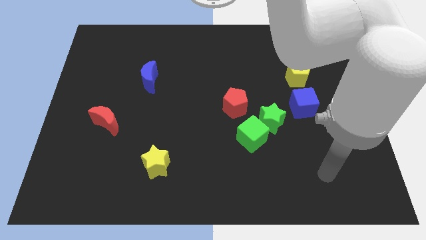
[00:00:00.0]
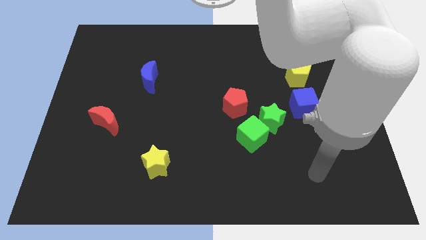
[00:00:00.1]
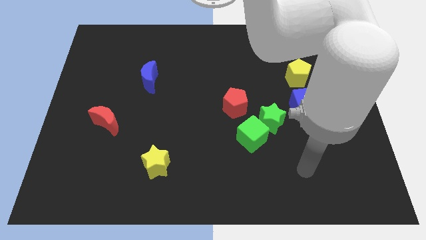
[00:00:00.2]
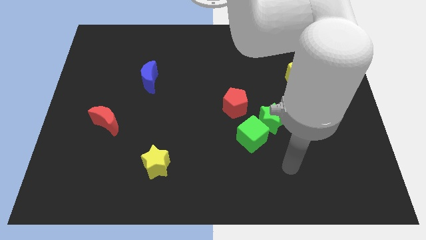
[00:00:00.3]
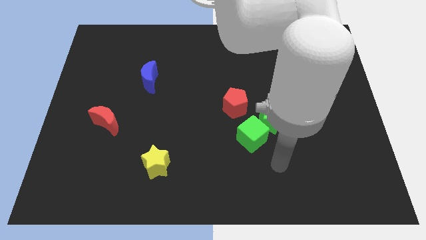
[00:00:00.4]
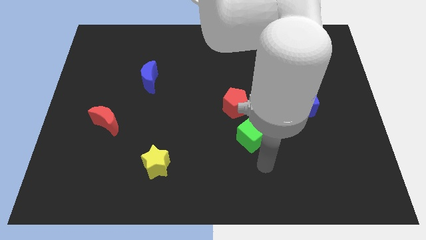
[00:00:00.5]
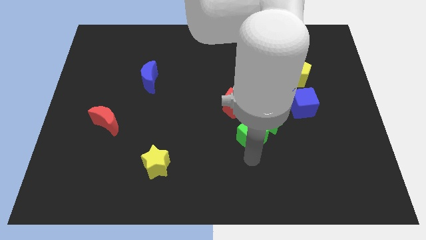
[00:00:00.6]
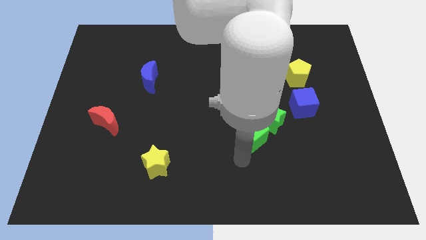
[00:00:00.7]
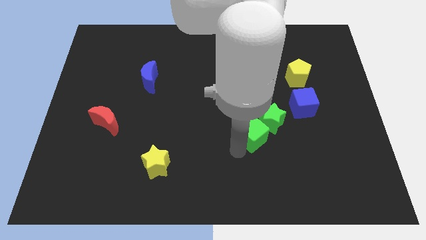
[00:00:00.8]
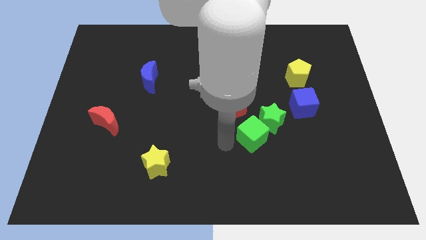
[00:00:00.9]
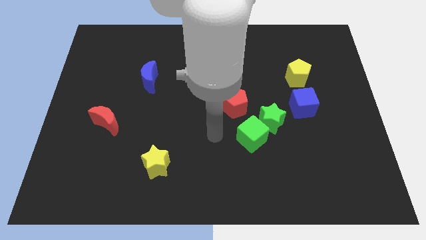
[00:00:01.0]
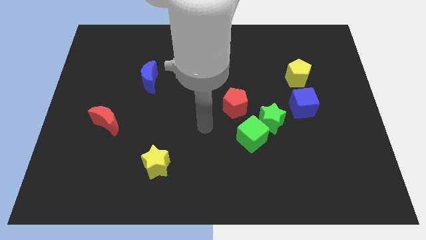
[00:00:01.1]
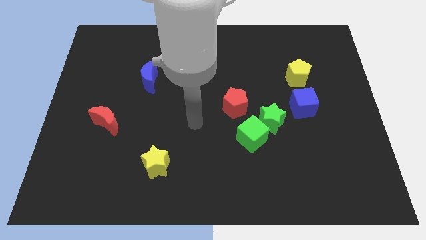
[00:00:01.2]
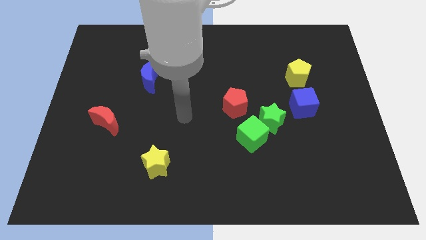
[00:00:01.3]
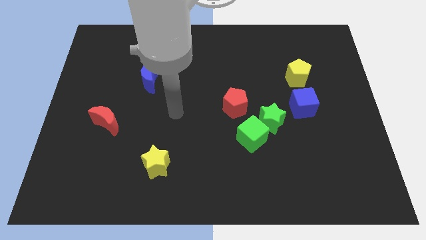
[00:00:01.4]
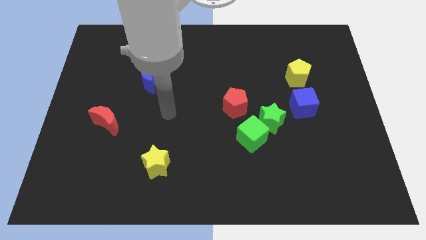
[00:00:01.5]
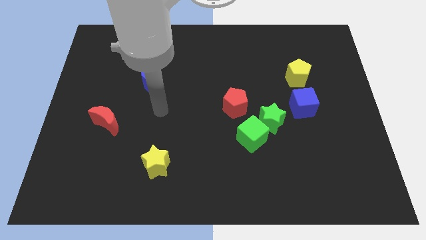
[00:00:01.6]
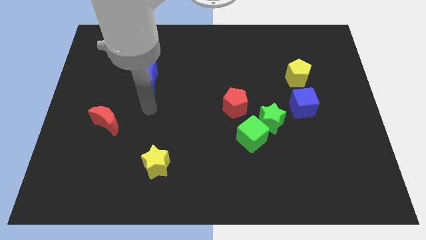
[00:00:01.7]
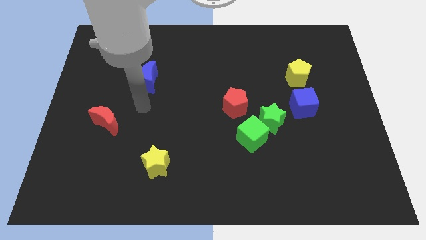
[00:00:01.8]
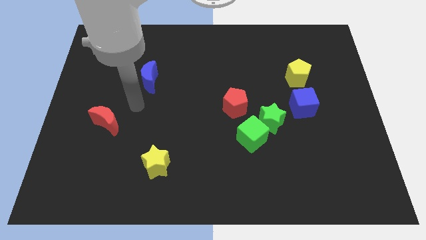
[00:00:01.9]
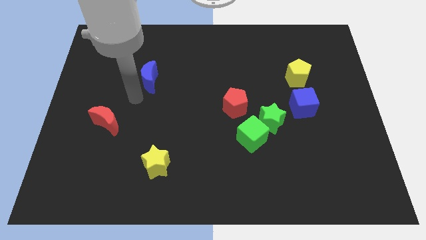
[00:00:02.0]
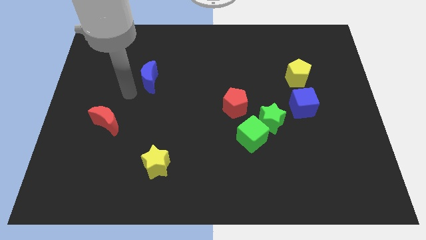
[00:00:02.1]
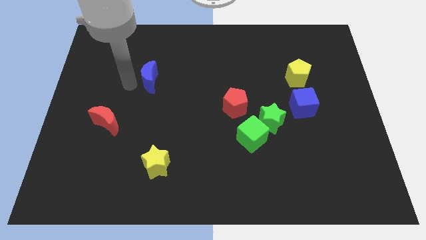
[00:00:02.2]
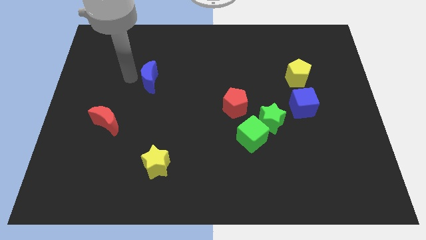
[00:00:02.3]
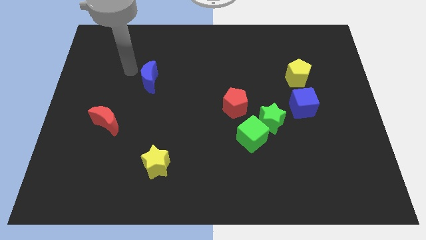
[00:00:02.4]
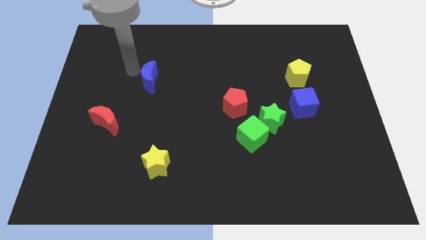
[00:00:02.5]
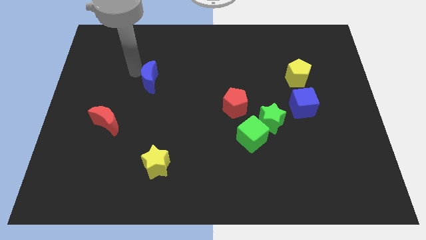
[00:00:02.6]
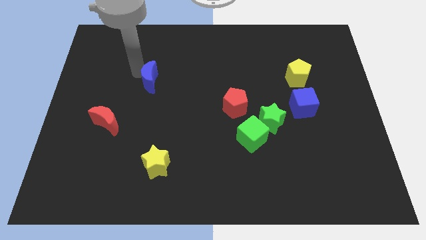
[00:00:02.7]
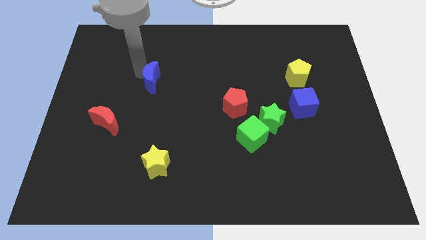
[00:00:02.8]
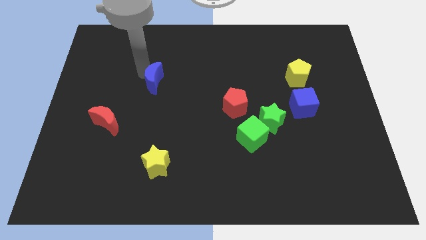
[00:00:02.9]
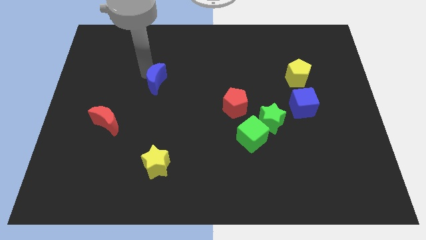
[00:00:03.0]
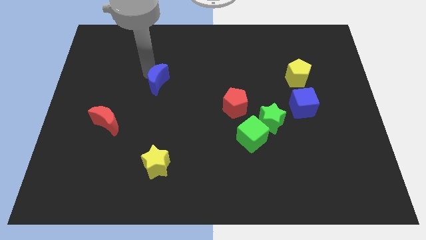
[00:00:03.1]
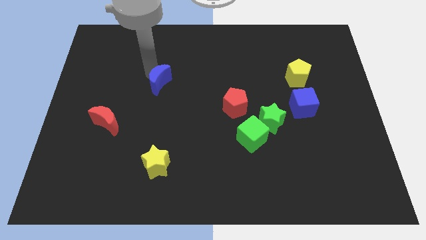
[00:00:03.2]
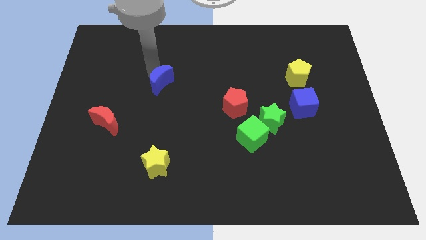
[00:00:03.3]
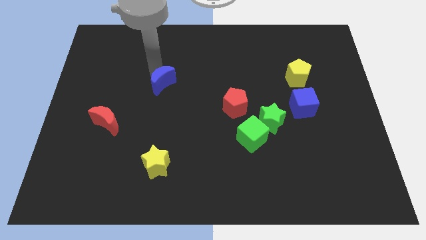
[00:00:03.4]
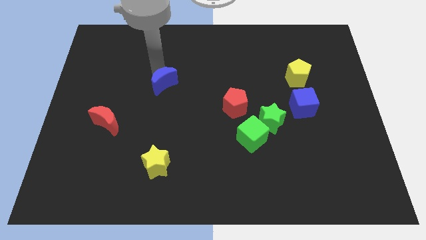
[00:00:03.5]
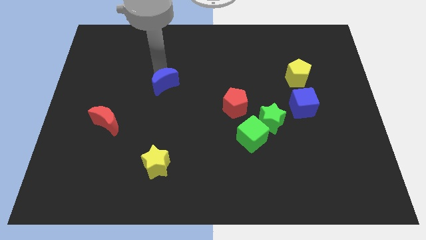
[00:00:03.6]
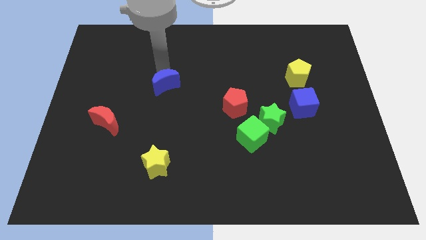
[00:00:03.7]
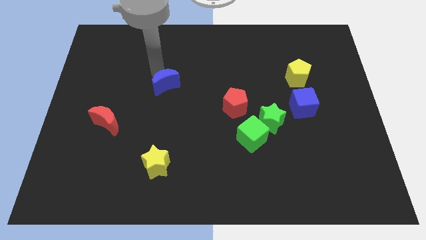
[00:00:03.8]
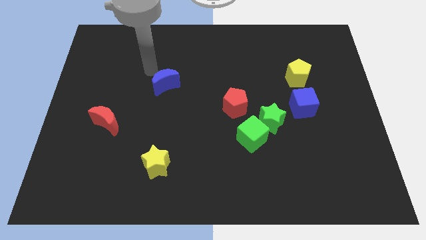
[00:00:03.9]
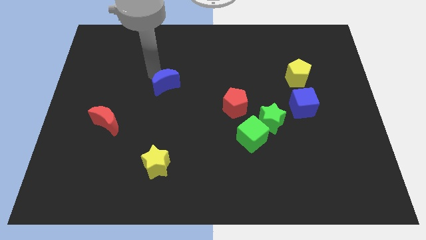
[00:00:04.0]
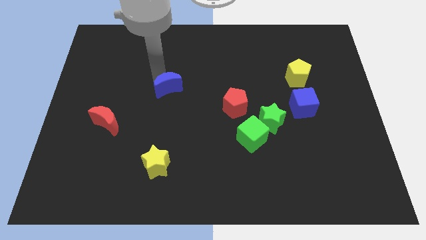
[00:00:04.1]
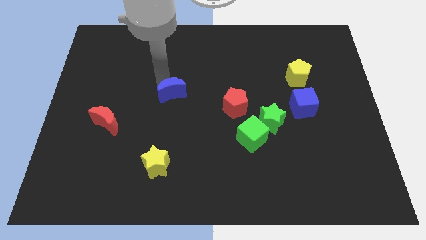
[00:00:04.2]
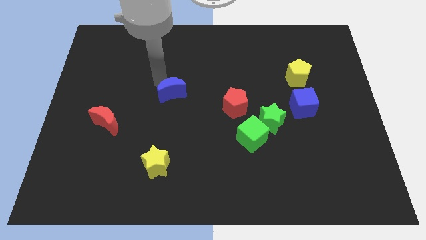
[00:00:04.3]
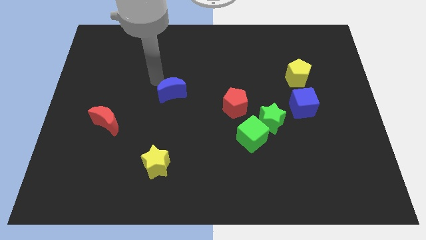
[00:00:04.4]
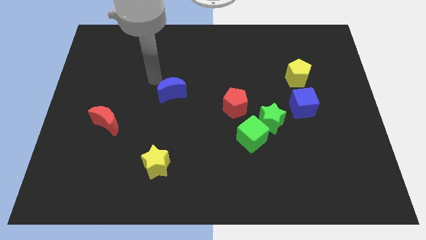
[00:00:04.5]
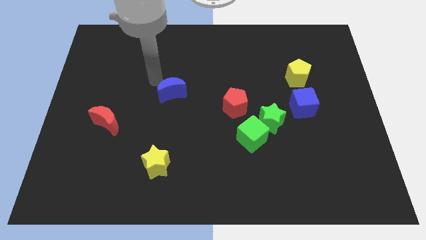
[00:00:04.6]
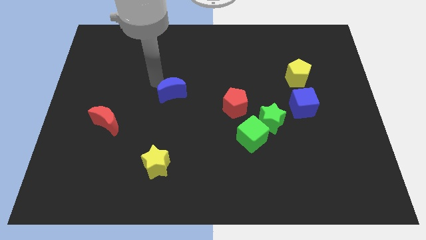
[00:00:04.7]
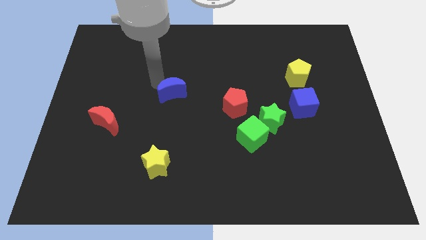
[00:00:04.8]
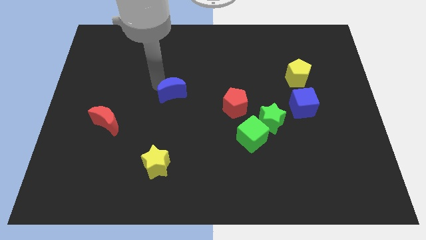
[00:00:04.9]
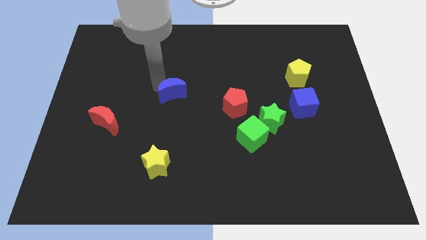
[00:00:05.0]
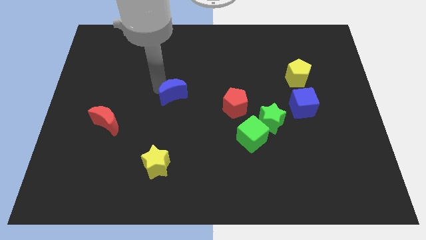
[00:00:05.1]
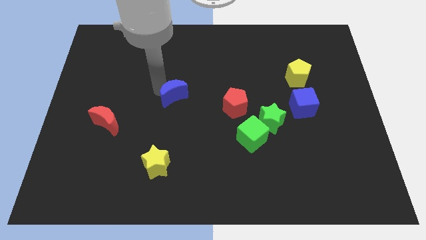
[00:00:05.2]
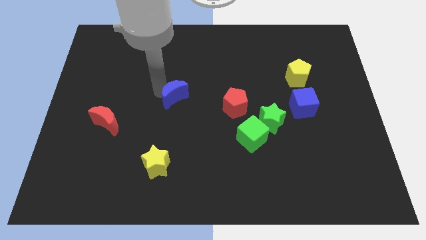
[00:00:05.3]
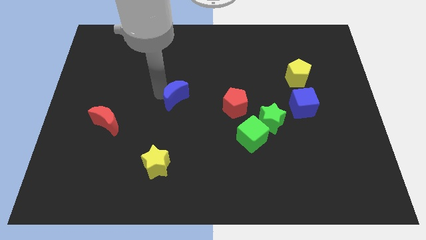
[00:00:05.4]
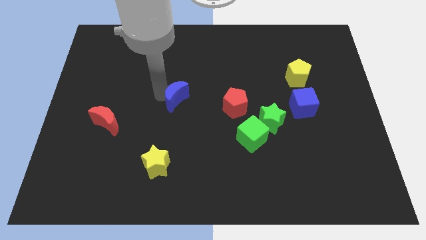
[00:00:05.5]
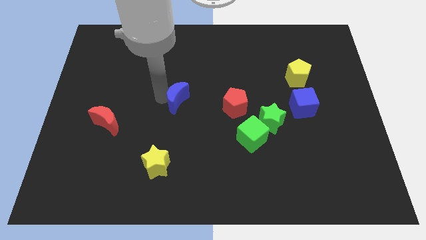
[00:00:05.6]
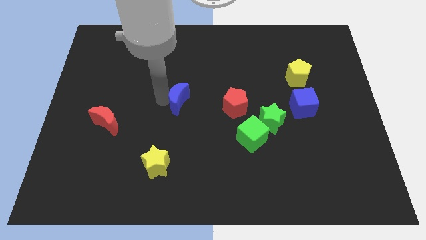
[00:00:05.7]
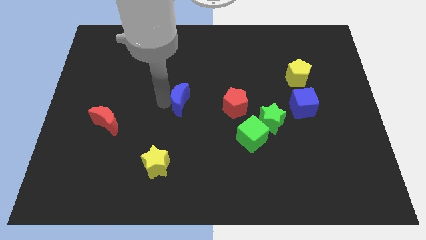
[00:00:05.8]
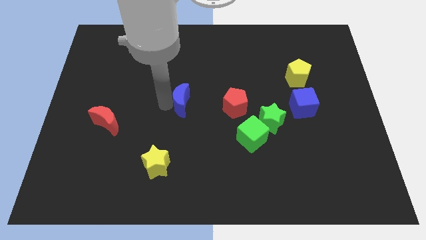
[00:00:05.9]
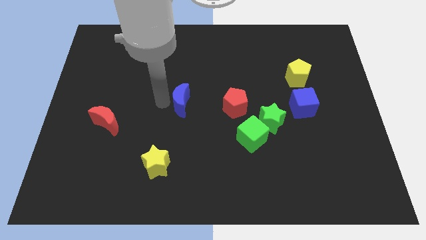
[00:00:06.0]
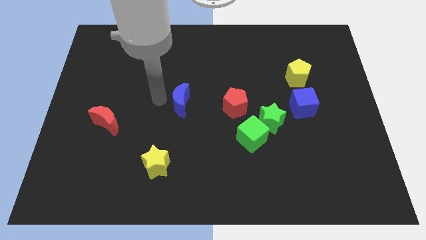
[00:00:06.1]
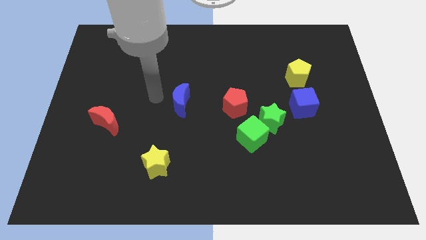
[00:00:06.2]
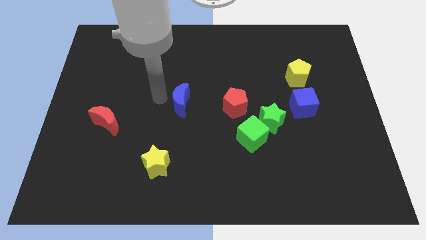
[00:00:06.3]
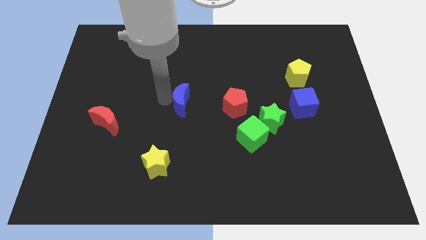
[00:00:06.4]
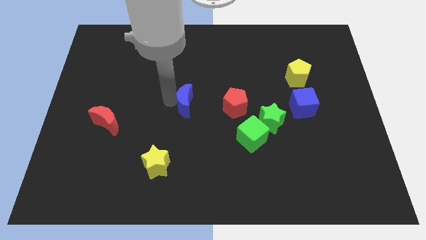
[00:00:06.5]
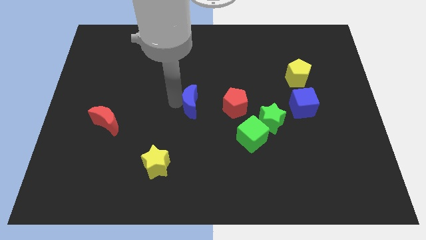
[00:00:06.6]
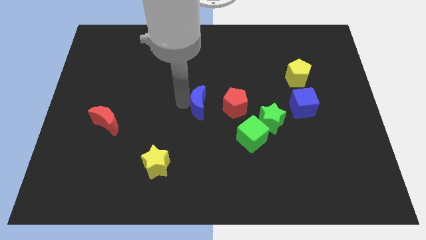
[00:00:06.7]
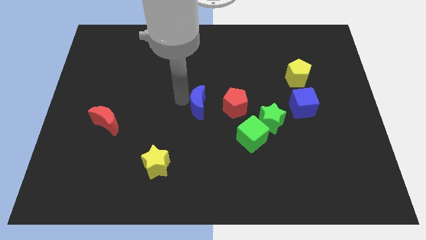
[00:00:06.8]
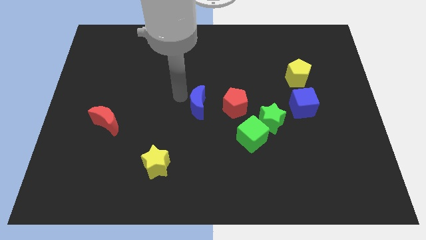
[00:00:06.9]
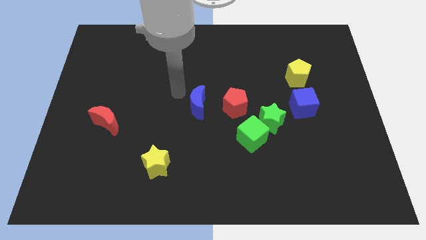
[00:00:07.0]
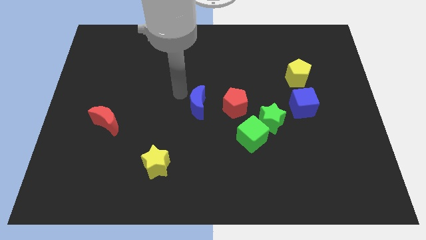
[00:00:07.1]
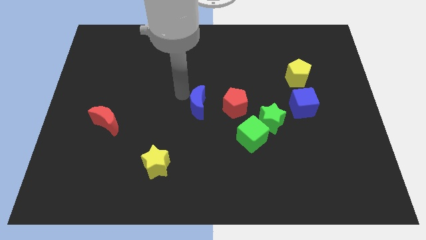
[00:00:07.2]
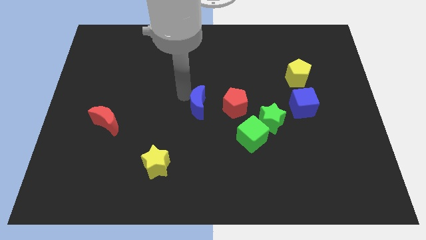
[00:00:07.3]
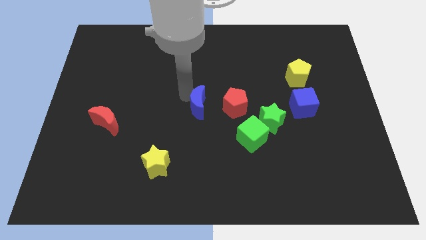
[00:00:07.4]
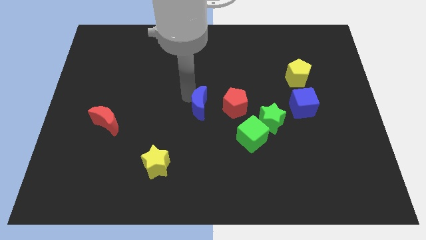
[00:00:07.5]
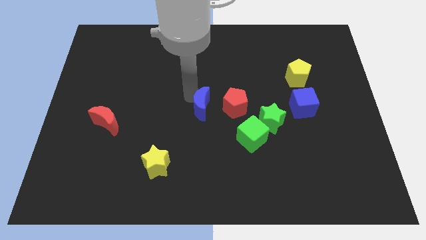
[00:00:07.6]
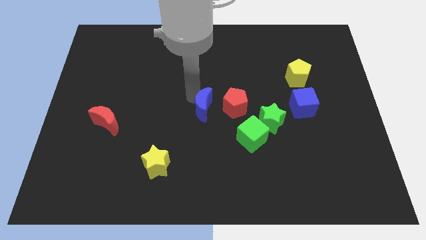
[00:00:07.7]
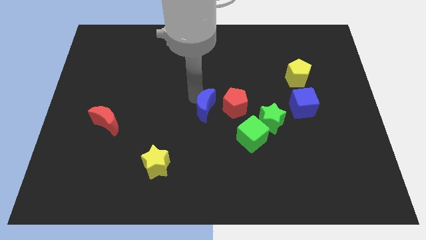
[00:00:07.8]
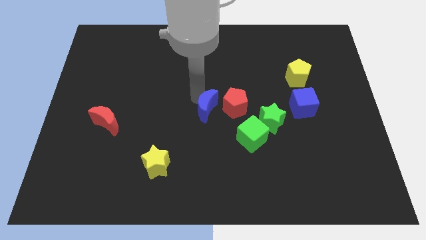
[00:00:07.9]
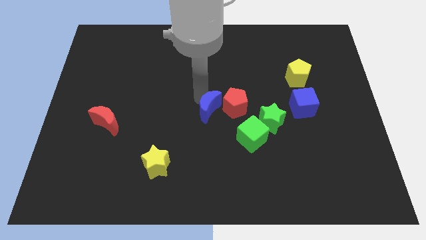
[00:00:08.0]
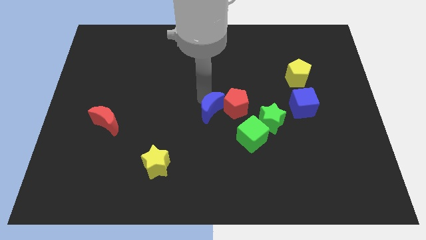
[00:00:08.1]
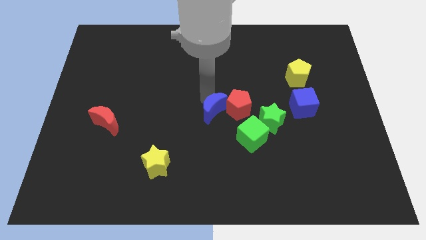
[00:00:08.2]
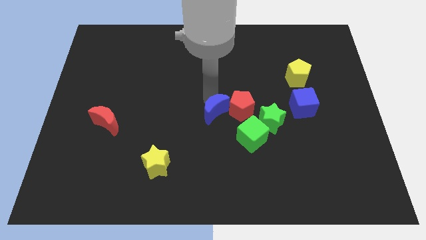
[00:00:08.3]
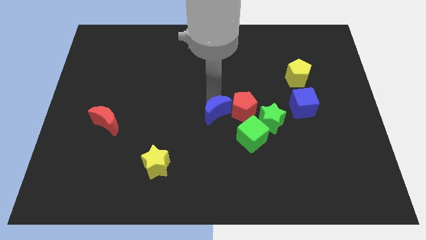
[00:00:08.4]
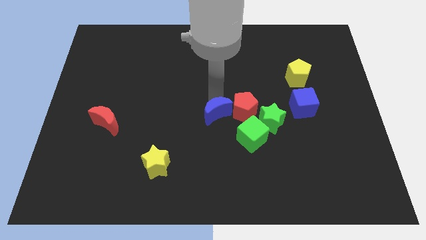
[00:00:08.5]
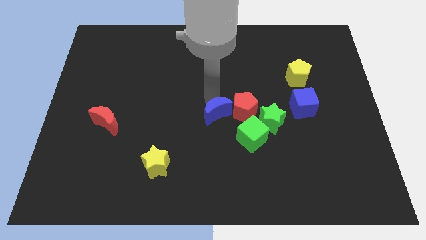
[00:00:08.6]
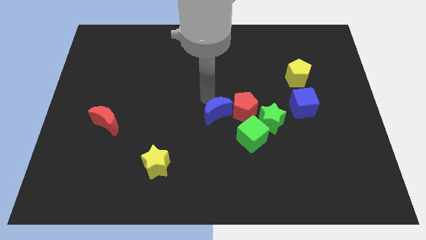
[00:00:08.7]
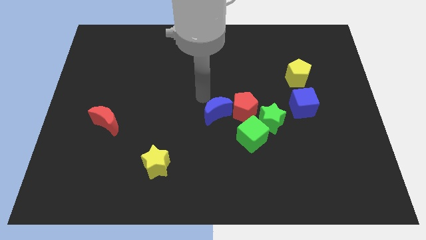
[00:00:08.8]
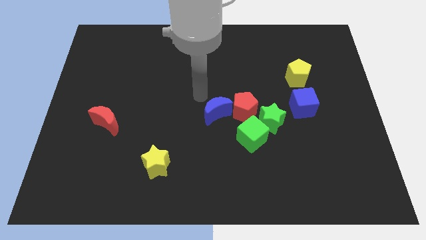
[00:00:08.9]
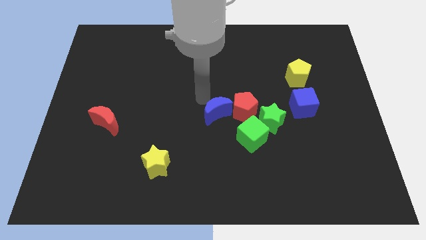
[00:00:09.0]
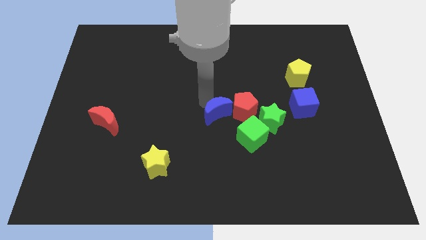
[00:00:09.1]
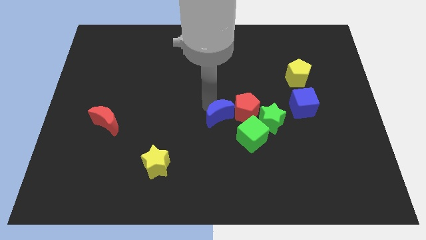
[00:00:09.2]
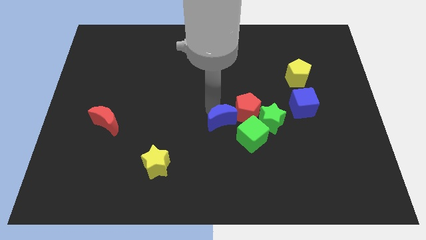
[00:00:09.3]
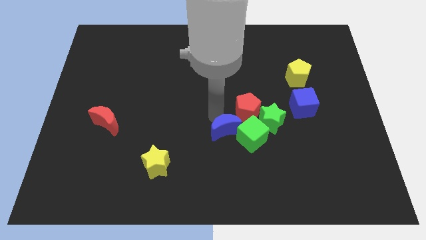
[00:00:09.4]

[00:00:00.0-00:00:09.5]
put the blue moon next to the green cube
